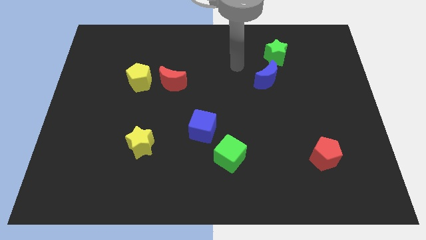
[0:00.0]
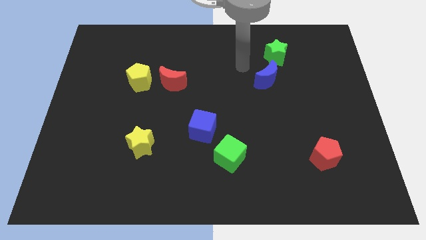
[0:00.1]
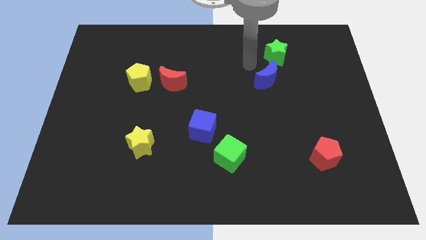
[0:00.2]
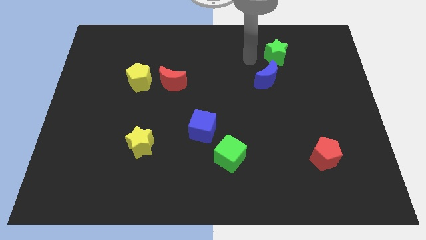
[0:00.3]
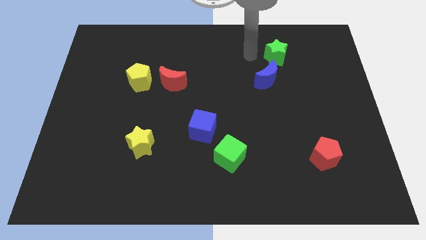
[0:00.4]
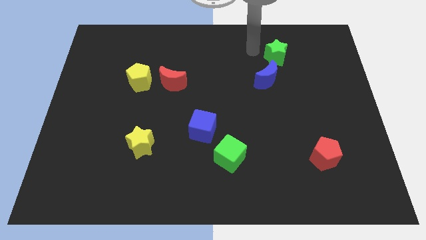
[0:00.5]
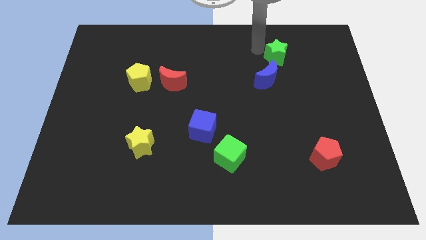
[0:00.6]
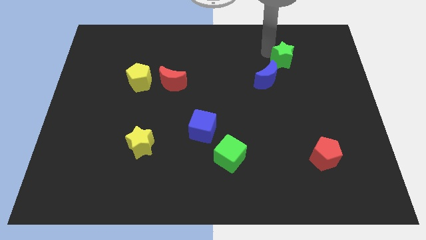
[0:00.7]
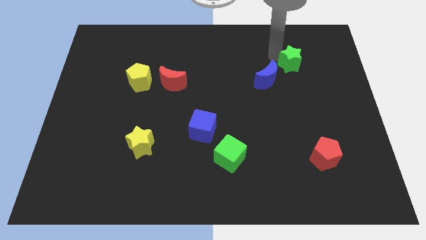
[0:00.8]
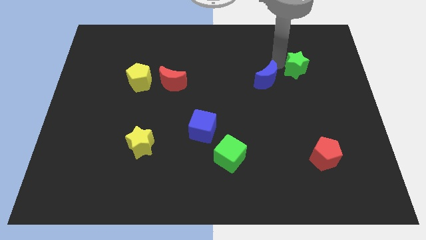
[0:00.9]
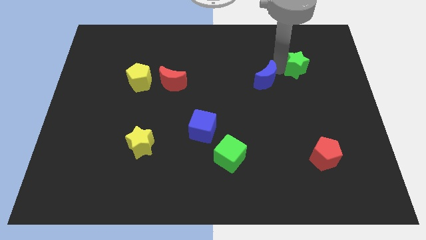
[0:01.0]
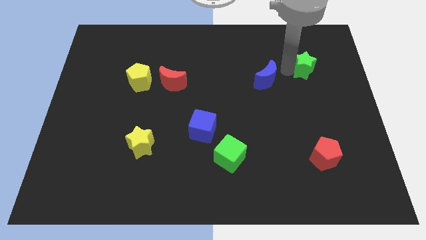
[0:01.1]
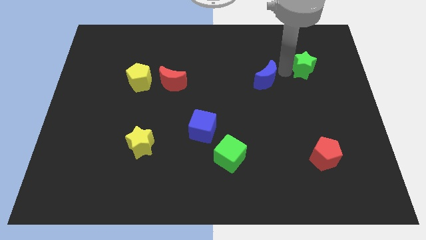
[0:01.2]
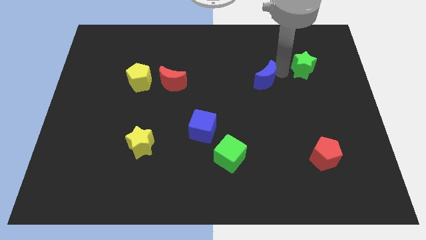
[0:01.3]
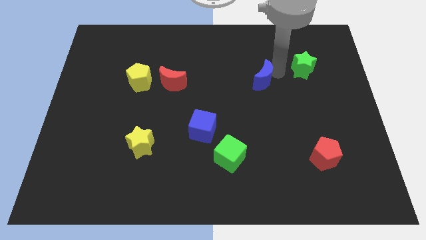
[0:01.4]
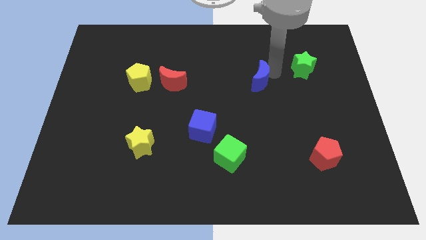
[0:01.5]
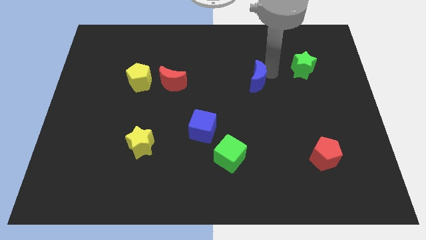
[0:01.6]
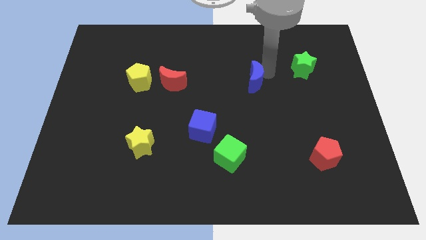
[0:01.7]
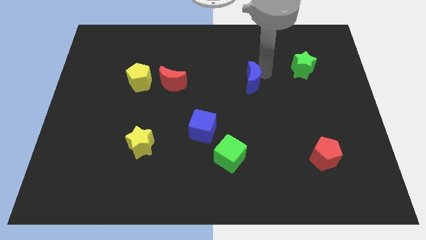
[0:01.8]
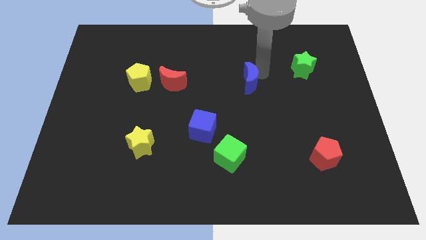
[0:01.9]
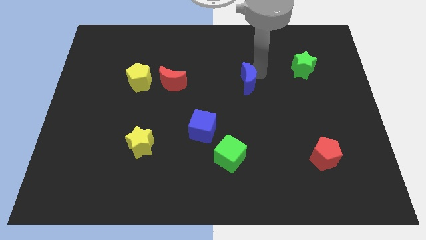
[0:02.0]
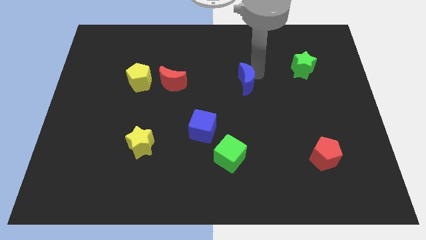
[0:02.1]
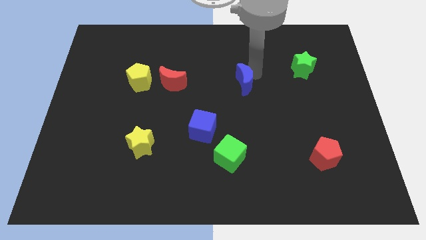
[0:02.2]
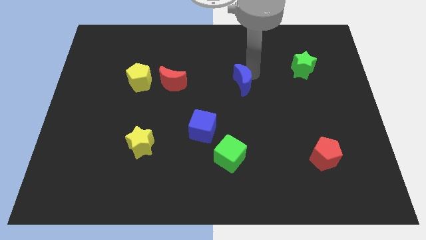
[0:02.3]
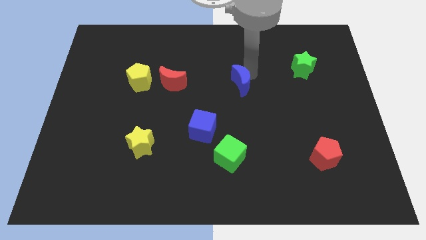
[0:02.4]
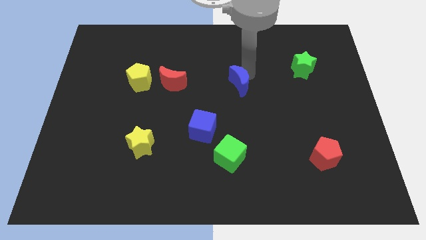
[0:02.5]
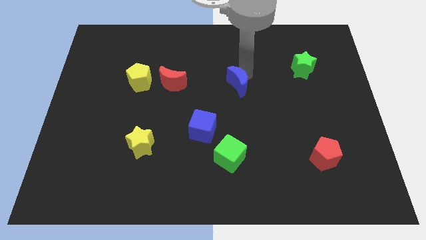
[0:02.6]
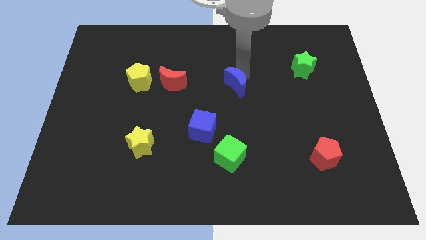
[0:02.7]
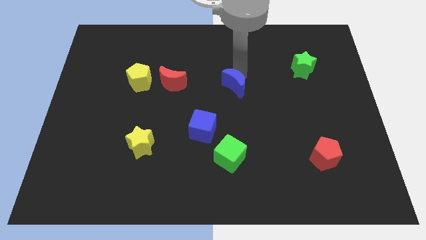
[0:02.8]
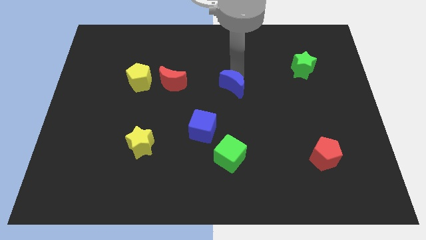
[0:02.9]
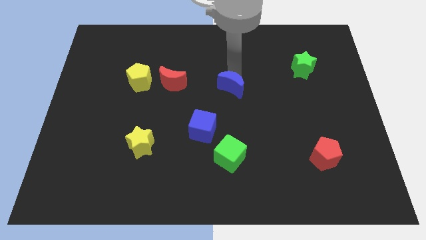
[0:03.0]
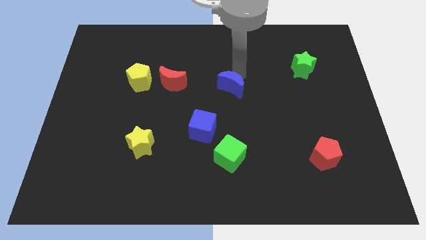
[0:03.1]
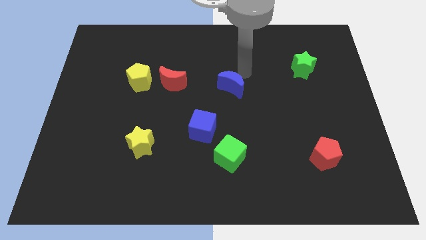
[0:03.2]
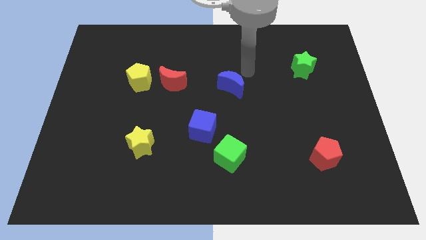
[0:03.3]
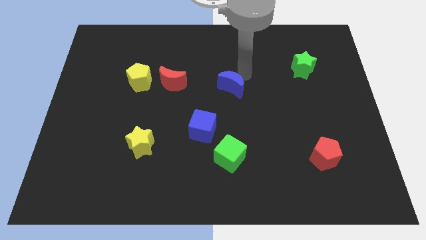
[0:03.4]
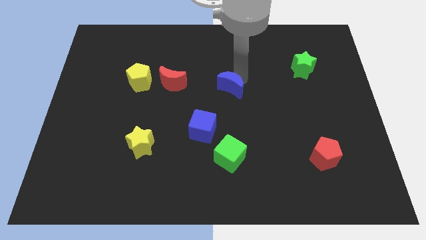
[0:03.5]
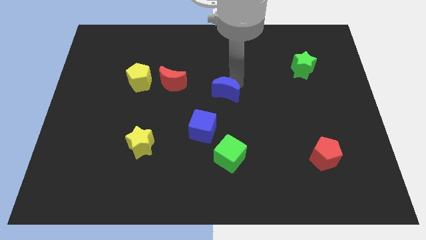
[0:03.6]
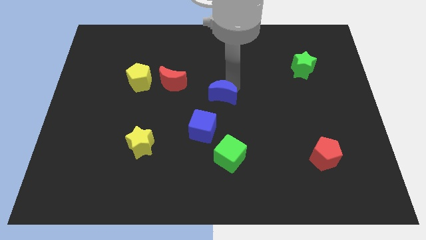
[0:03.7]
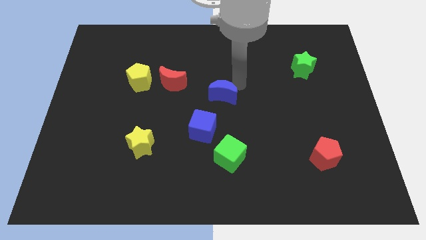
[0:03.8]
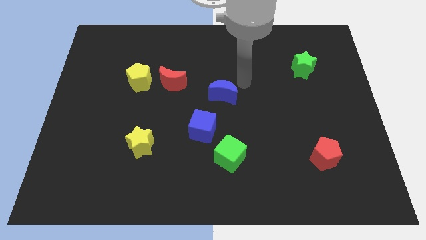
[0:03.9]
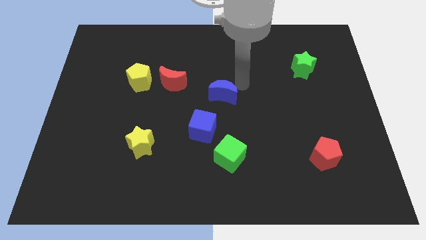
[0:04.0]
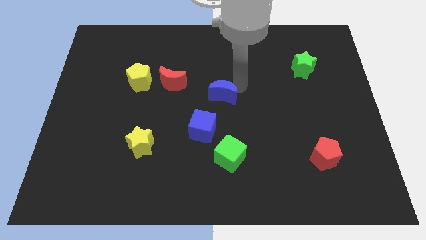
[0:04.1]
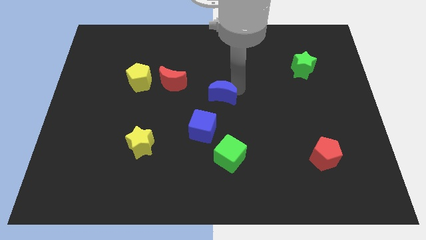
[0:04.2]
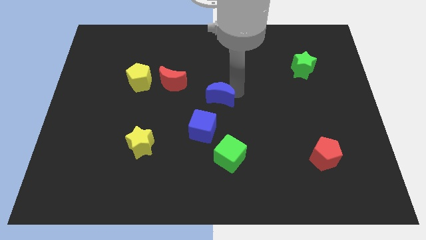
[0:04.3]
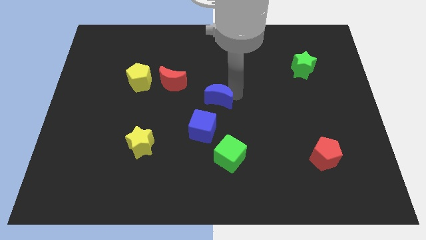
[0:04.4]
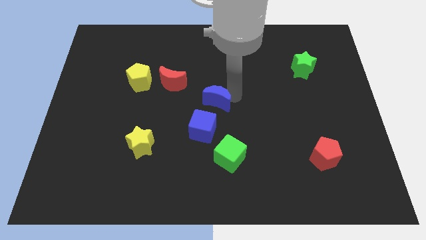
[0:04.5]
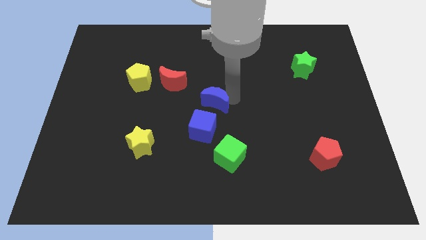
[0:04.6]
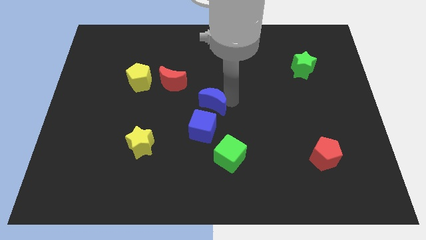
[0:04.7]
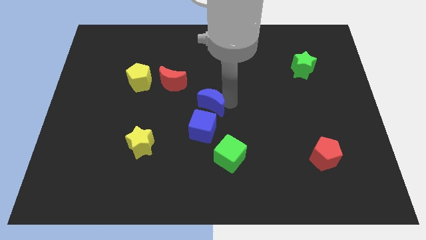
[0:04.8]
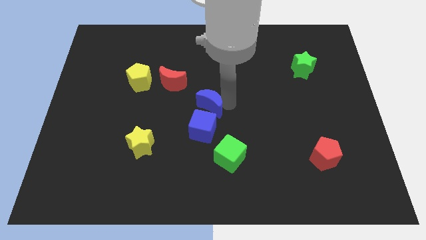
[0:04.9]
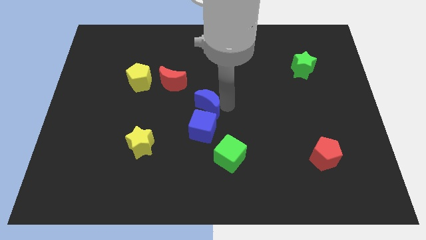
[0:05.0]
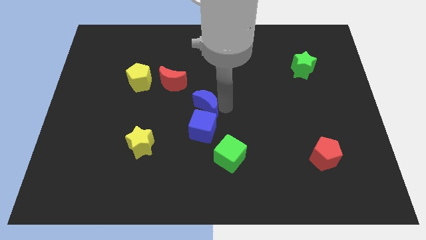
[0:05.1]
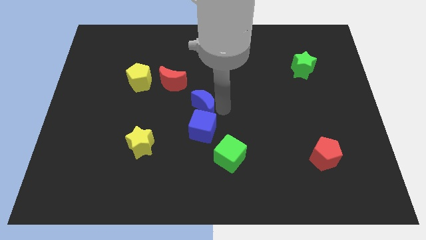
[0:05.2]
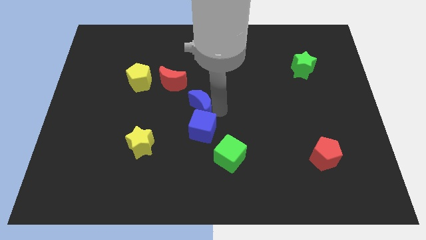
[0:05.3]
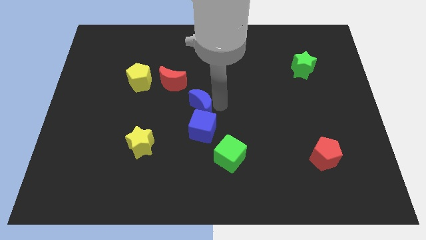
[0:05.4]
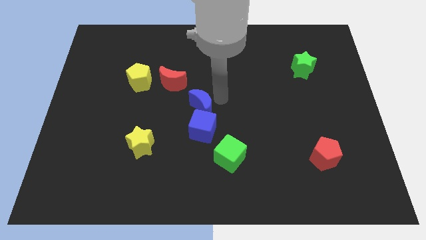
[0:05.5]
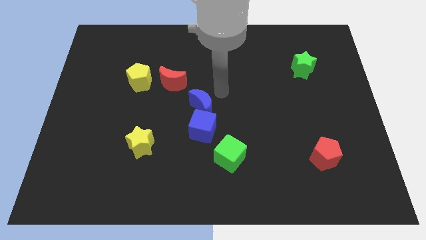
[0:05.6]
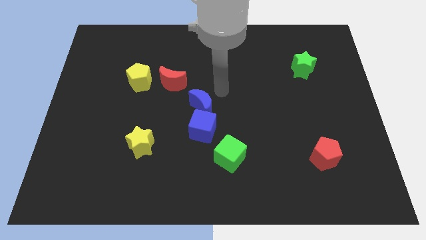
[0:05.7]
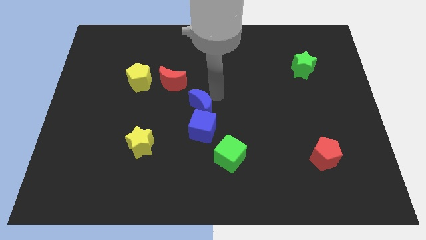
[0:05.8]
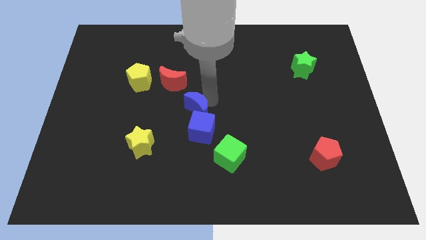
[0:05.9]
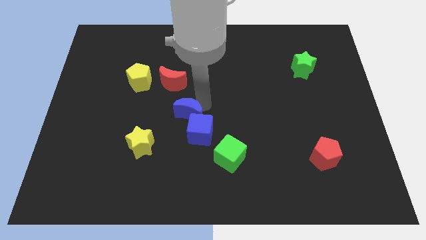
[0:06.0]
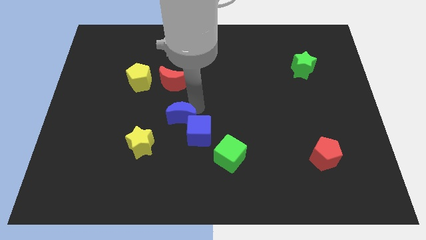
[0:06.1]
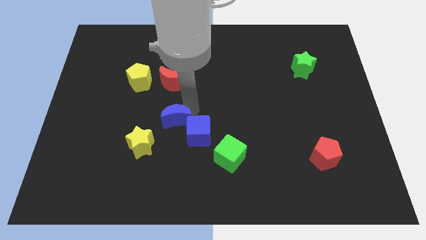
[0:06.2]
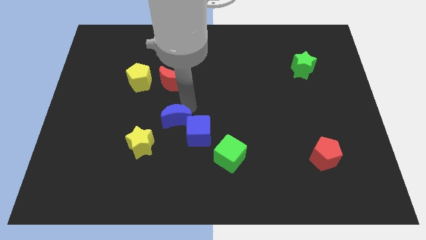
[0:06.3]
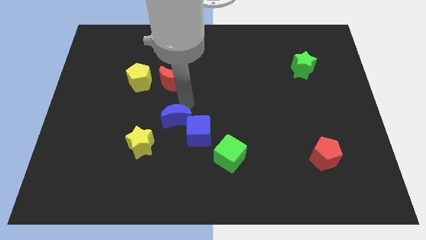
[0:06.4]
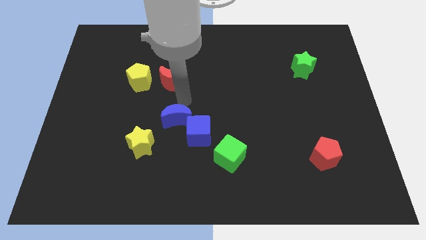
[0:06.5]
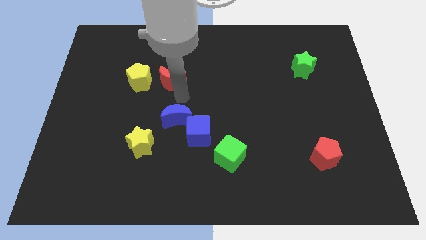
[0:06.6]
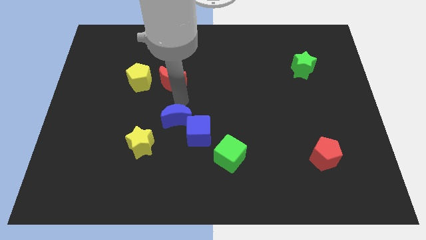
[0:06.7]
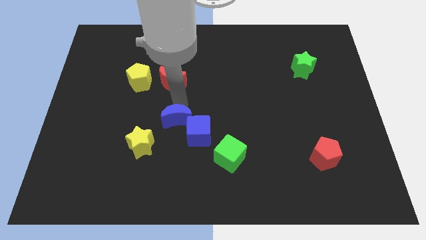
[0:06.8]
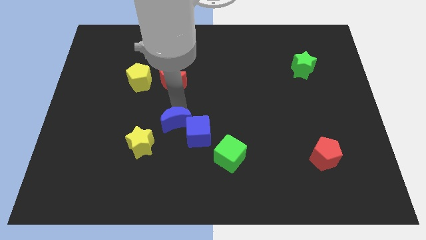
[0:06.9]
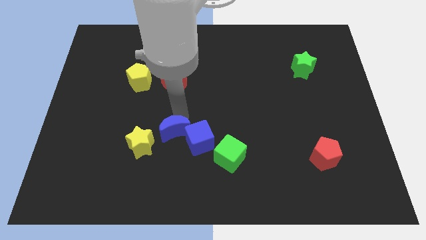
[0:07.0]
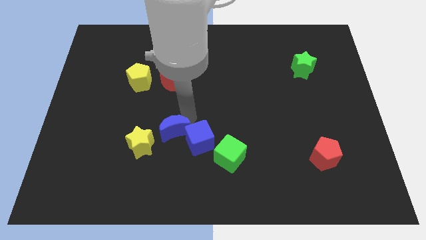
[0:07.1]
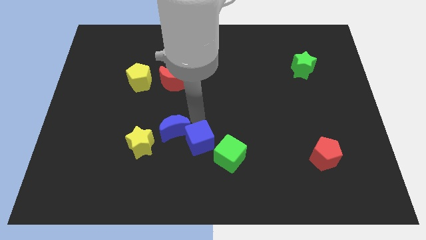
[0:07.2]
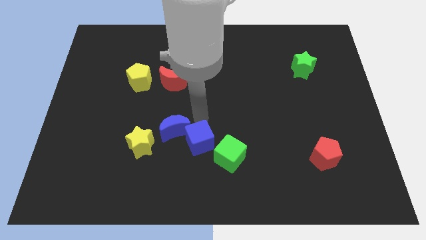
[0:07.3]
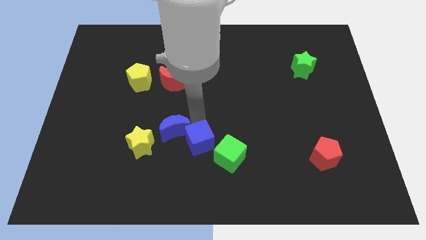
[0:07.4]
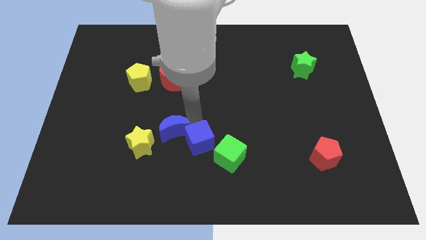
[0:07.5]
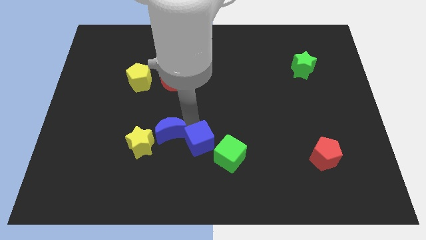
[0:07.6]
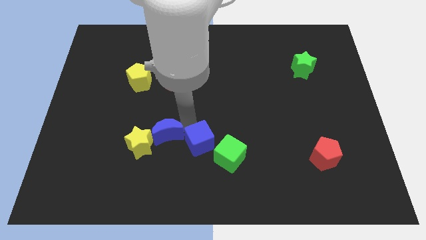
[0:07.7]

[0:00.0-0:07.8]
put the blue moon to the yellow star
